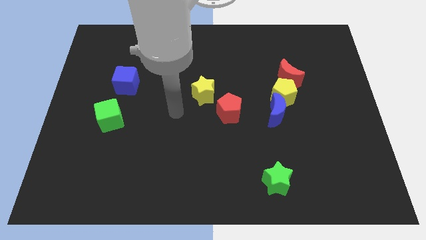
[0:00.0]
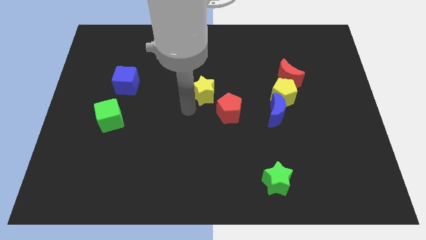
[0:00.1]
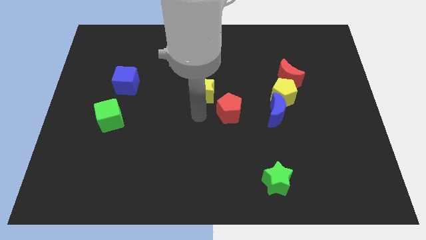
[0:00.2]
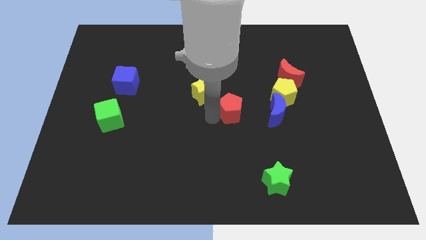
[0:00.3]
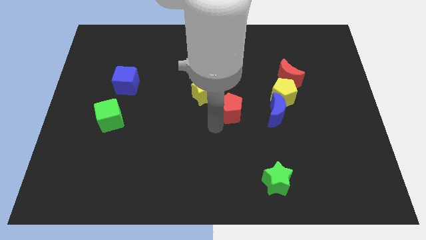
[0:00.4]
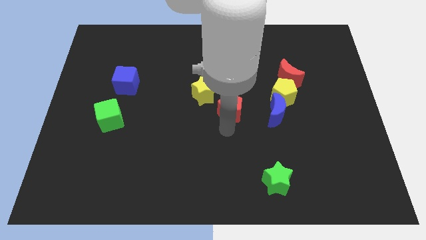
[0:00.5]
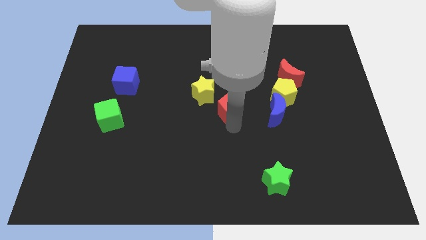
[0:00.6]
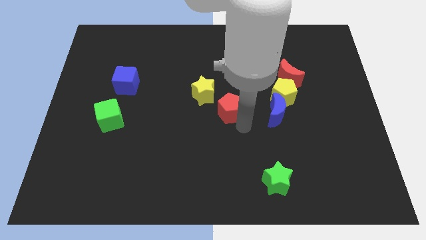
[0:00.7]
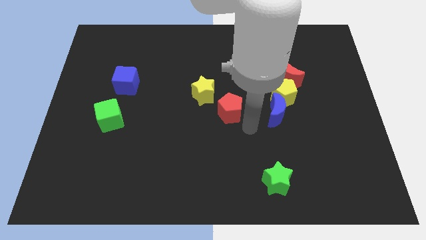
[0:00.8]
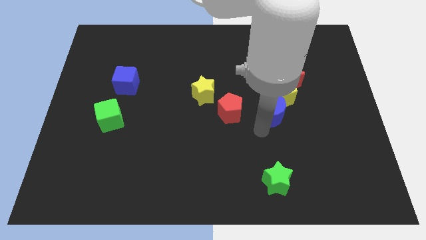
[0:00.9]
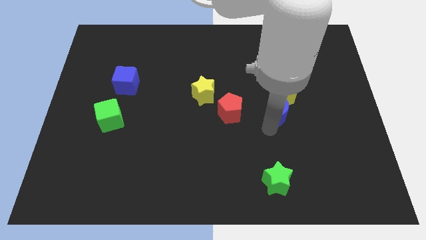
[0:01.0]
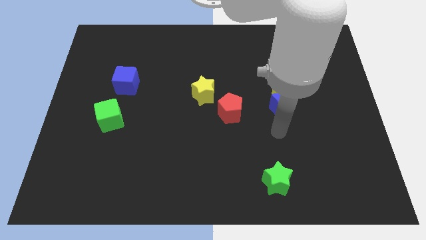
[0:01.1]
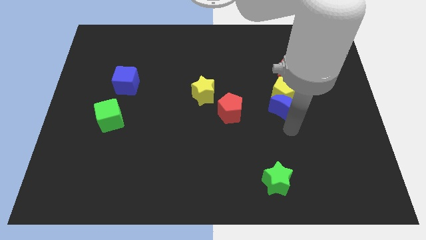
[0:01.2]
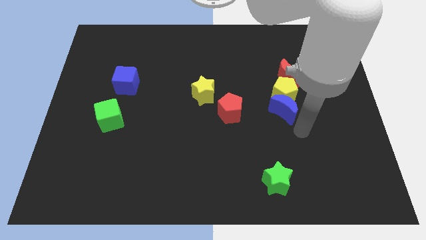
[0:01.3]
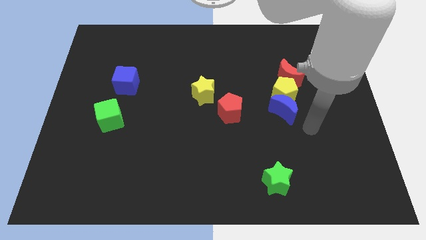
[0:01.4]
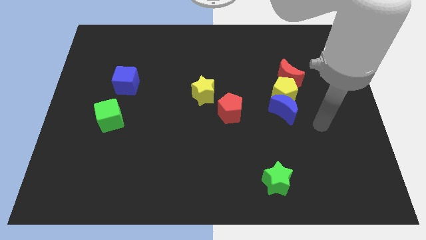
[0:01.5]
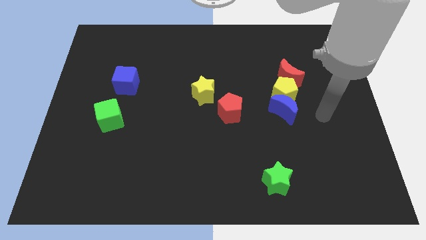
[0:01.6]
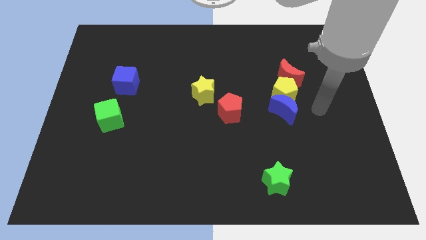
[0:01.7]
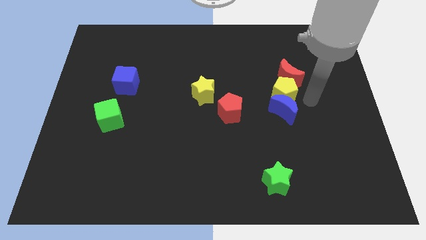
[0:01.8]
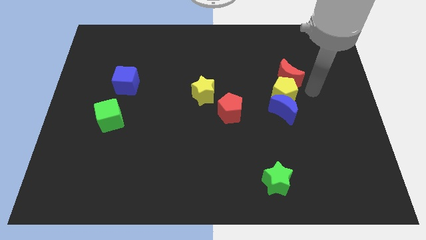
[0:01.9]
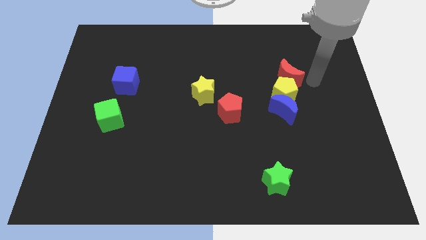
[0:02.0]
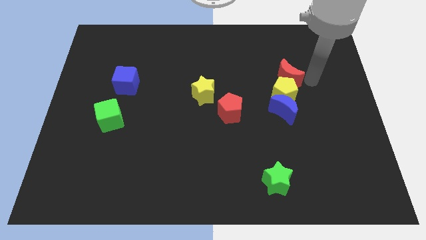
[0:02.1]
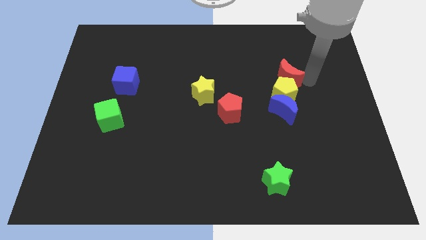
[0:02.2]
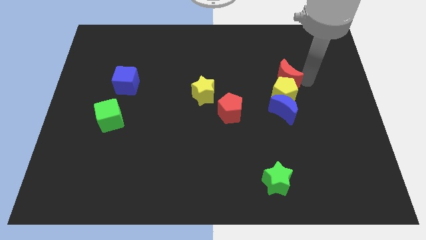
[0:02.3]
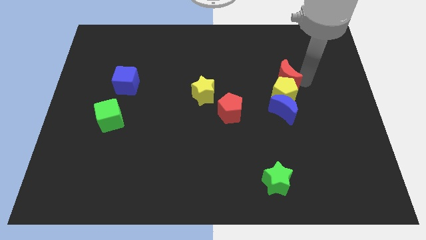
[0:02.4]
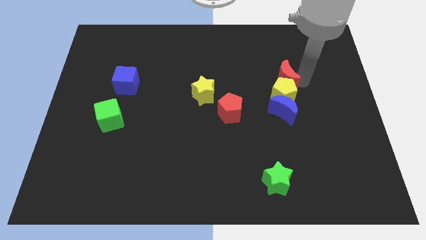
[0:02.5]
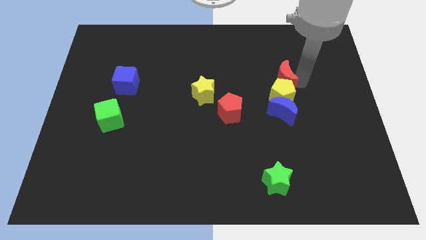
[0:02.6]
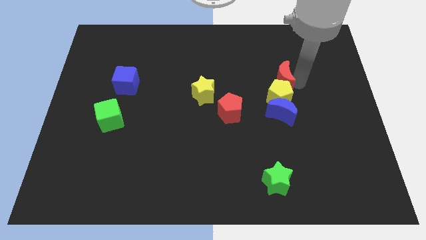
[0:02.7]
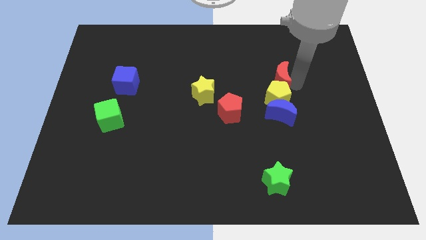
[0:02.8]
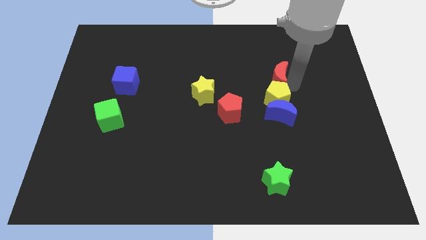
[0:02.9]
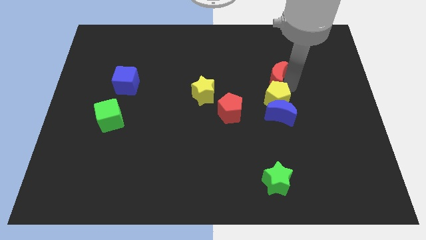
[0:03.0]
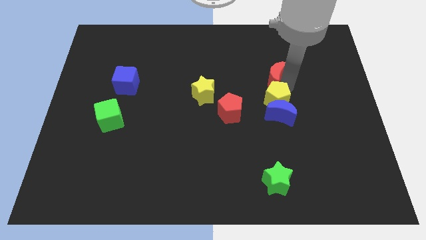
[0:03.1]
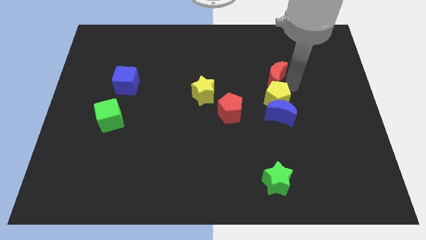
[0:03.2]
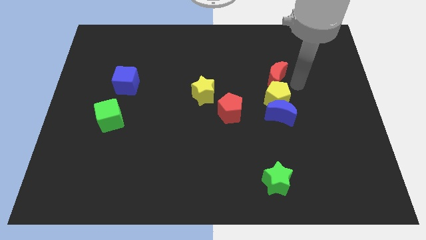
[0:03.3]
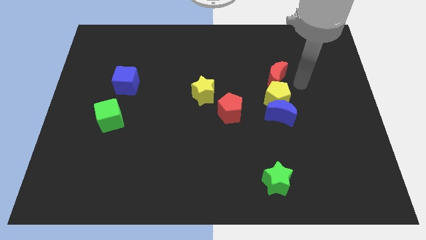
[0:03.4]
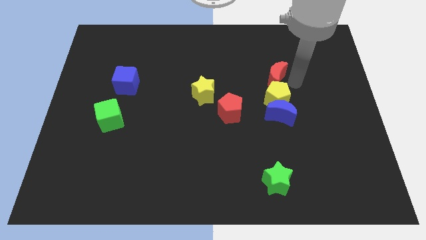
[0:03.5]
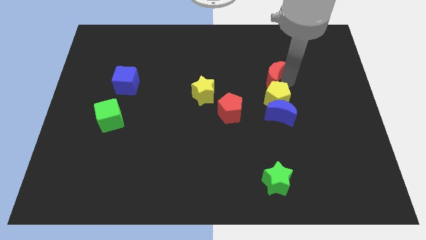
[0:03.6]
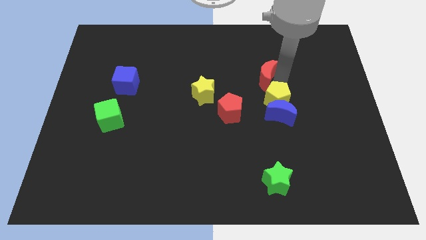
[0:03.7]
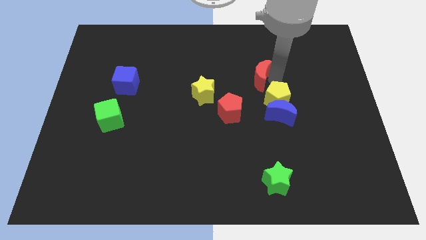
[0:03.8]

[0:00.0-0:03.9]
slightly push the red moon to the left

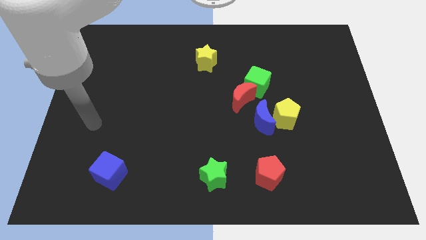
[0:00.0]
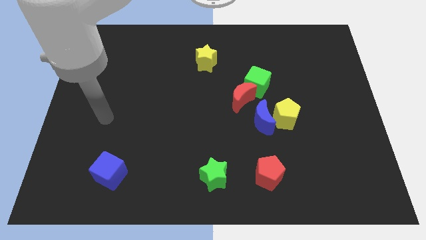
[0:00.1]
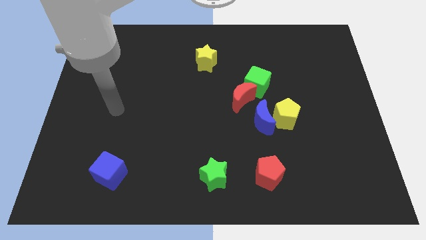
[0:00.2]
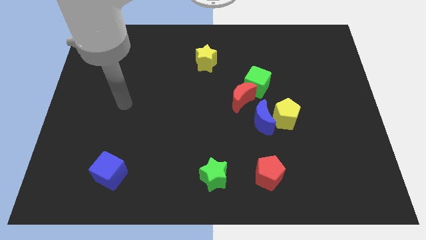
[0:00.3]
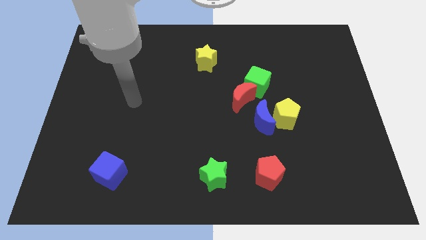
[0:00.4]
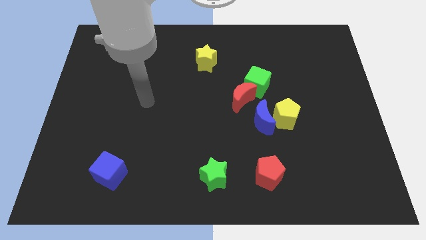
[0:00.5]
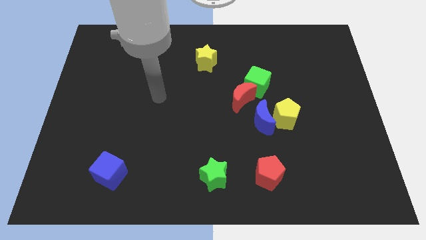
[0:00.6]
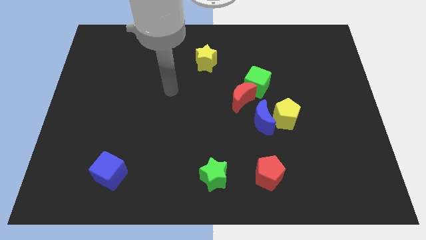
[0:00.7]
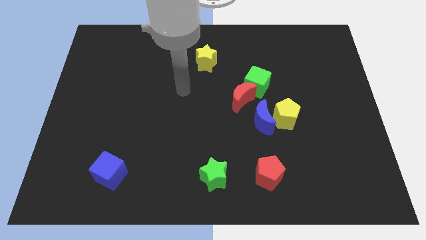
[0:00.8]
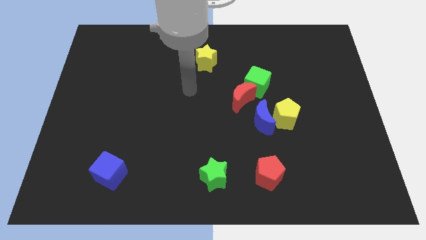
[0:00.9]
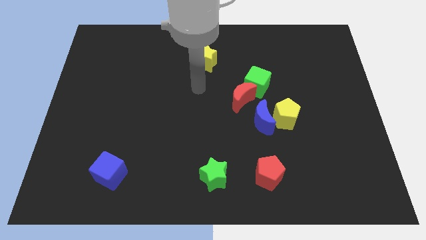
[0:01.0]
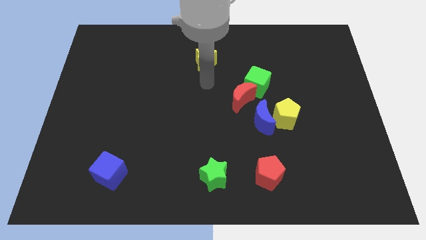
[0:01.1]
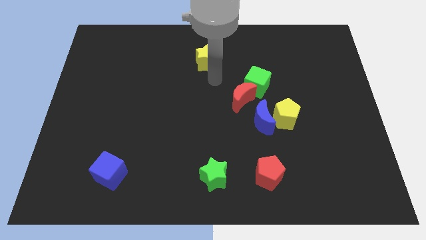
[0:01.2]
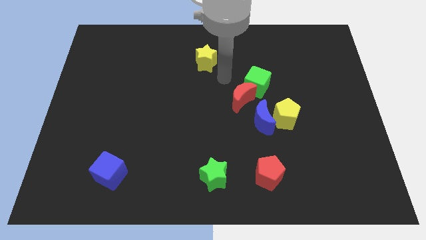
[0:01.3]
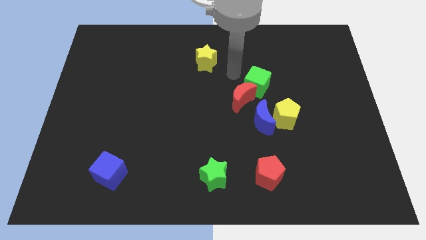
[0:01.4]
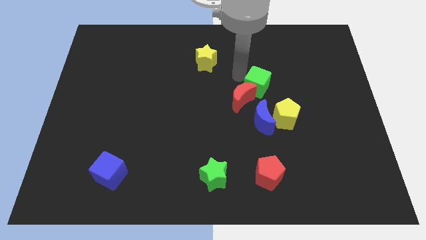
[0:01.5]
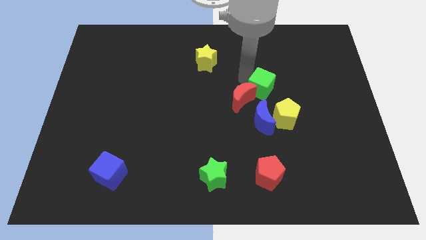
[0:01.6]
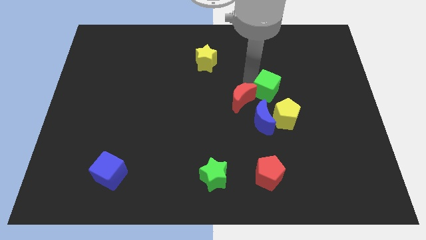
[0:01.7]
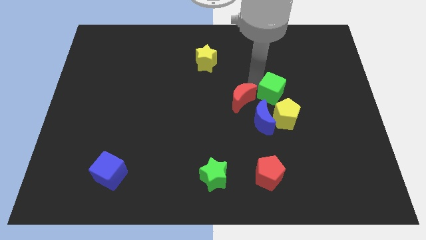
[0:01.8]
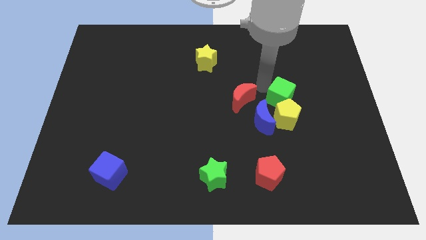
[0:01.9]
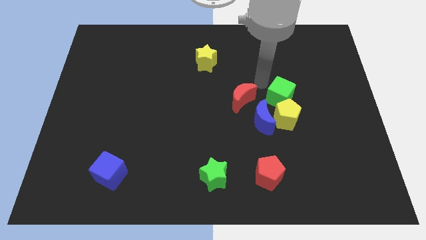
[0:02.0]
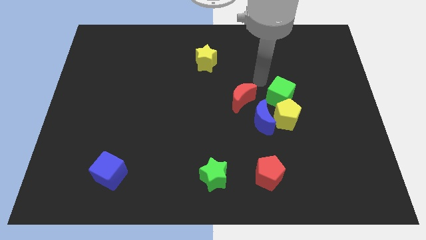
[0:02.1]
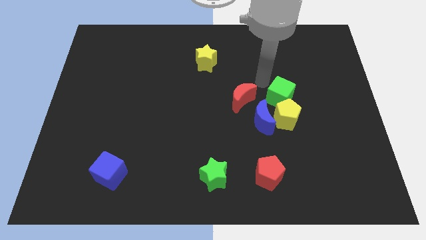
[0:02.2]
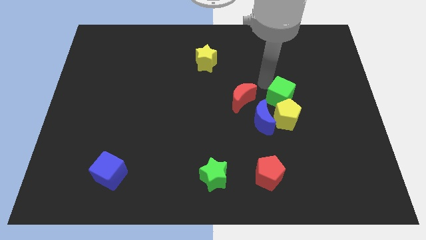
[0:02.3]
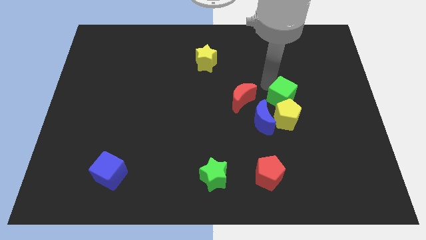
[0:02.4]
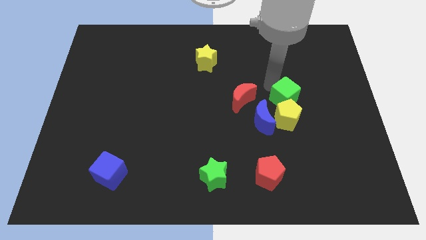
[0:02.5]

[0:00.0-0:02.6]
slightly move the green cube down and right diagonally

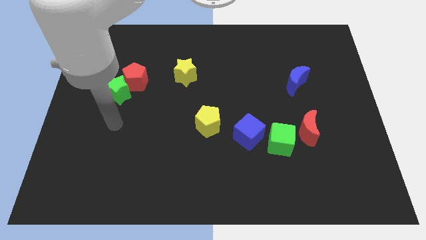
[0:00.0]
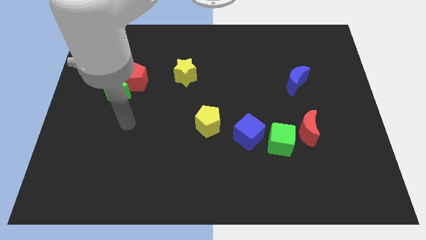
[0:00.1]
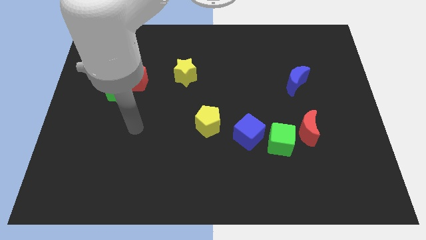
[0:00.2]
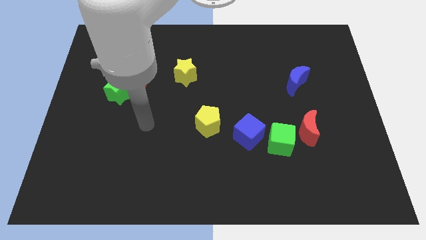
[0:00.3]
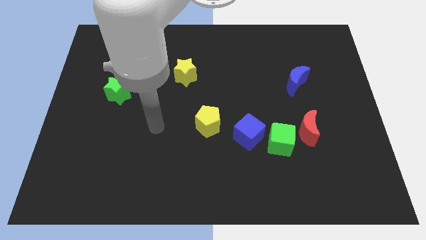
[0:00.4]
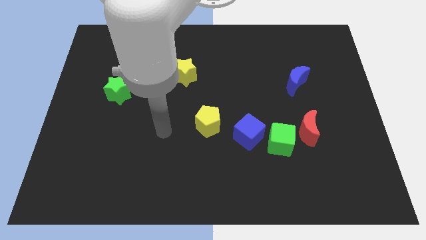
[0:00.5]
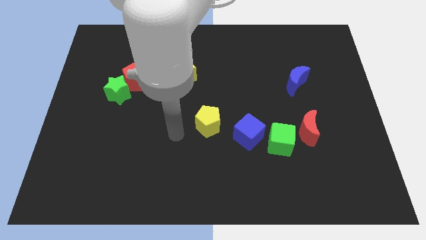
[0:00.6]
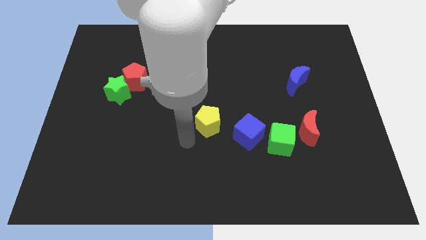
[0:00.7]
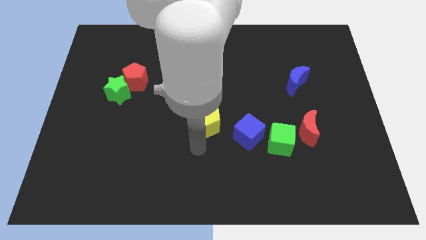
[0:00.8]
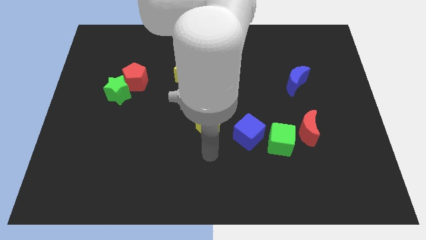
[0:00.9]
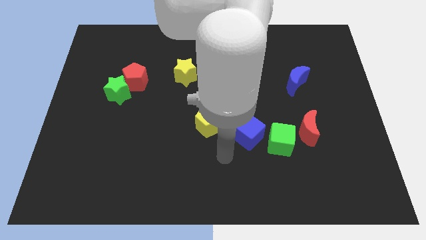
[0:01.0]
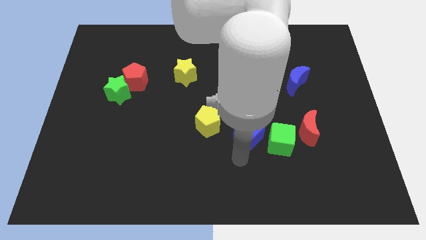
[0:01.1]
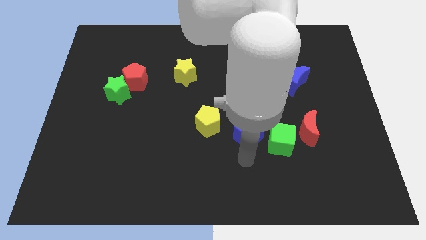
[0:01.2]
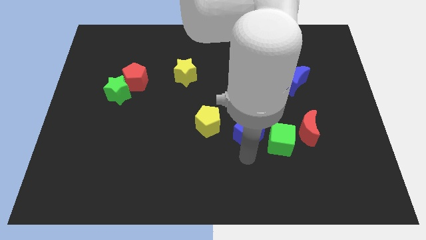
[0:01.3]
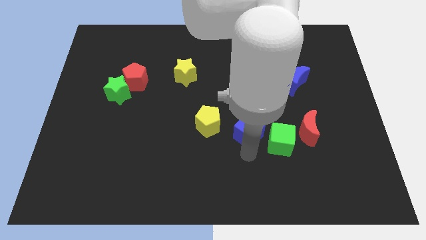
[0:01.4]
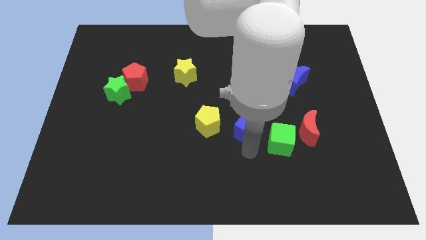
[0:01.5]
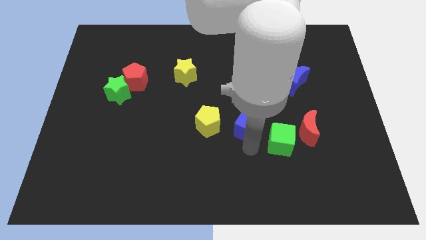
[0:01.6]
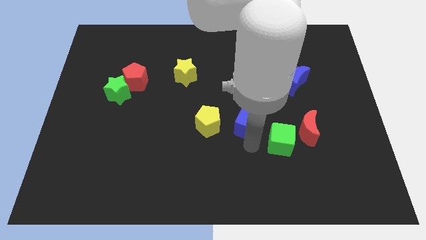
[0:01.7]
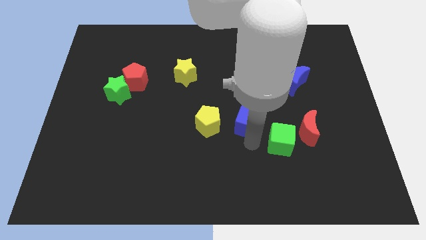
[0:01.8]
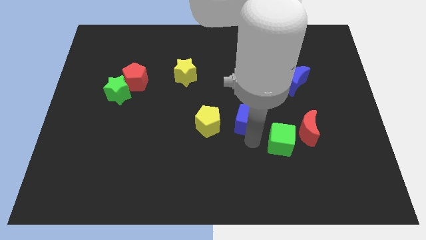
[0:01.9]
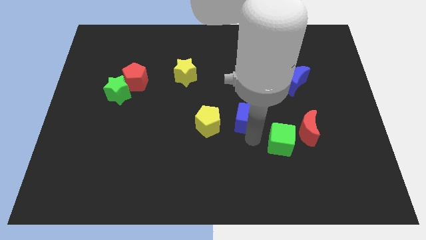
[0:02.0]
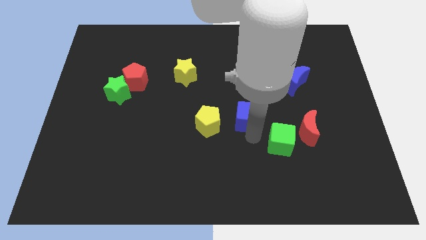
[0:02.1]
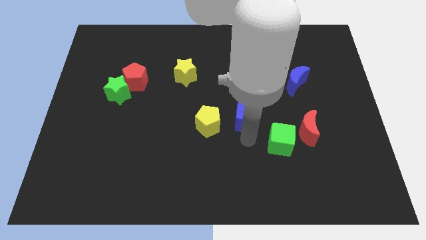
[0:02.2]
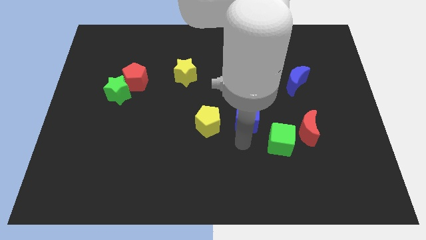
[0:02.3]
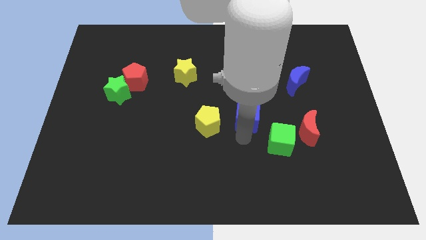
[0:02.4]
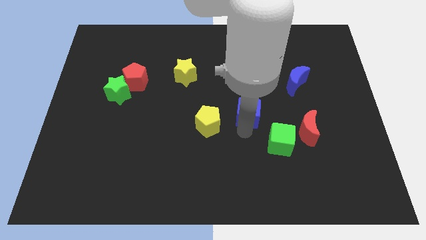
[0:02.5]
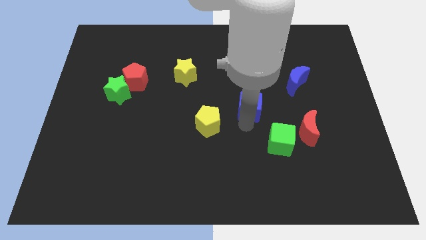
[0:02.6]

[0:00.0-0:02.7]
slightly push the blue cube up
